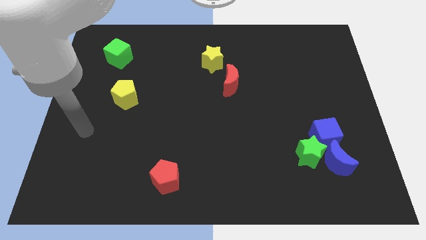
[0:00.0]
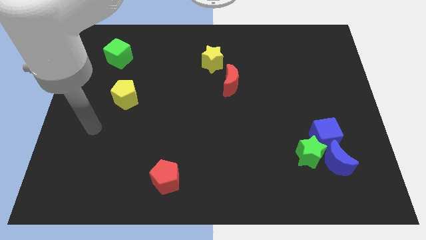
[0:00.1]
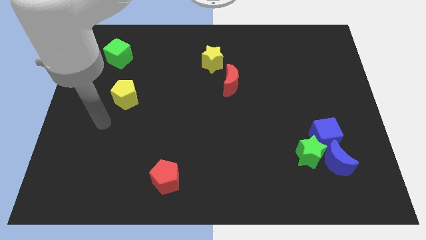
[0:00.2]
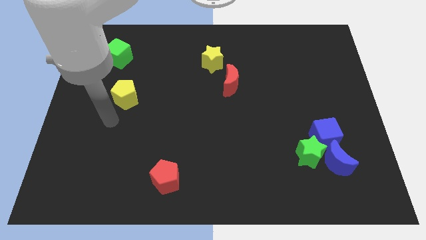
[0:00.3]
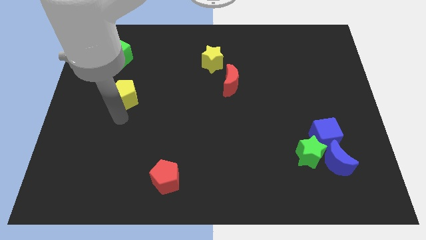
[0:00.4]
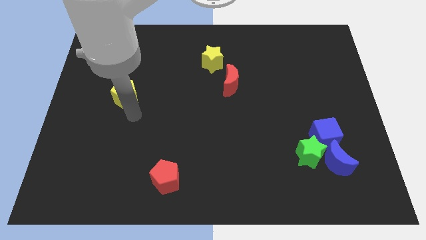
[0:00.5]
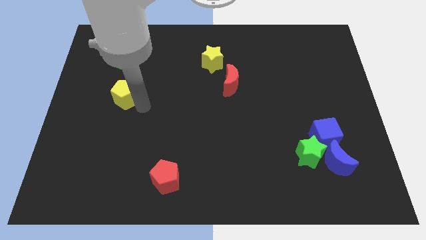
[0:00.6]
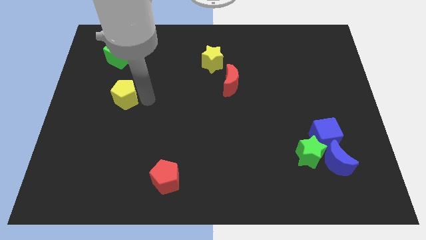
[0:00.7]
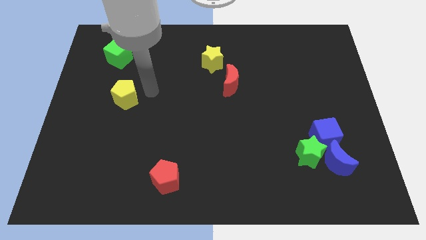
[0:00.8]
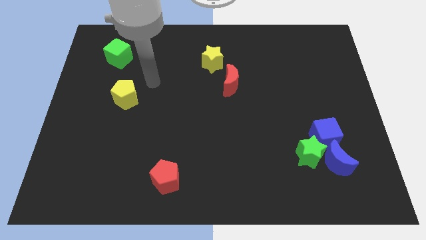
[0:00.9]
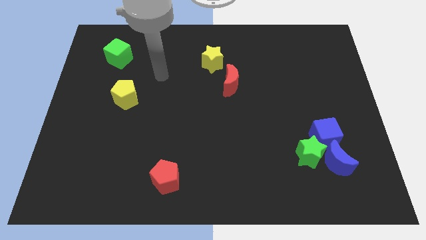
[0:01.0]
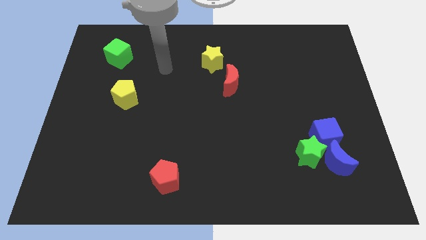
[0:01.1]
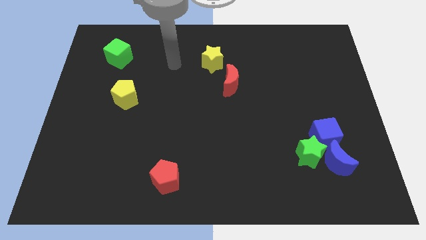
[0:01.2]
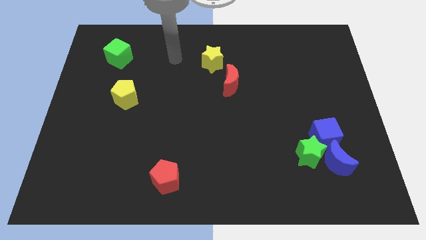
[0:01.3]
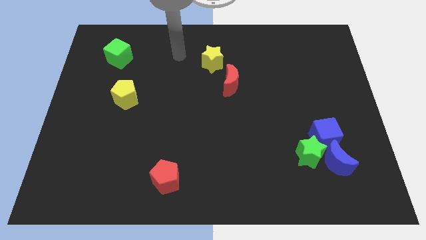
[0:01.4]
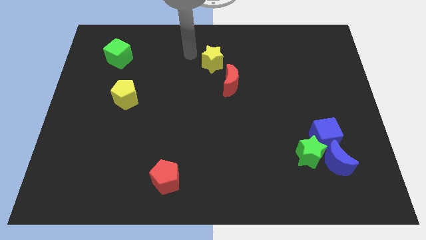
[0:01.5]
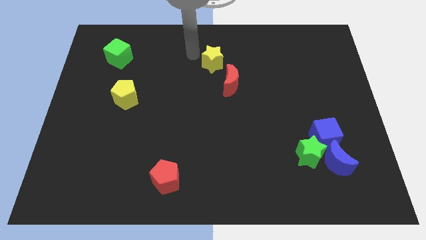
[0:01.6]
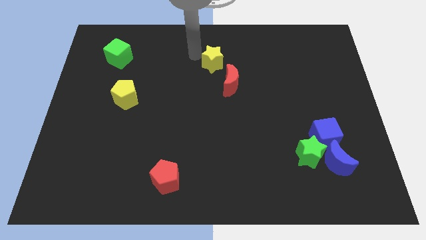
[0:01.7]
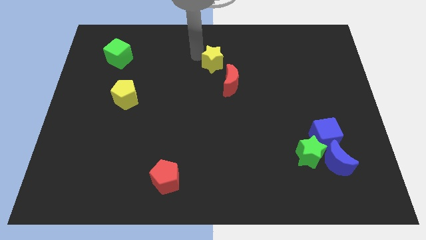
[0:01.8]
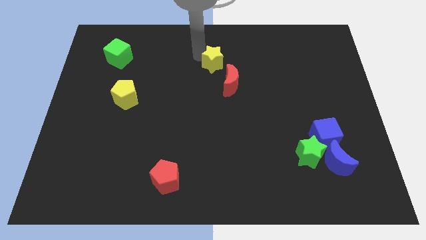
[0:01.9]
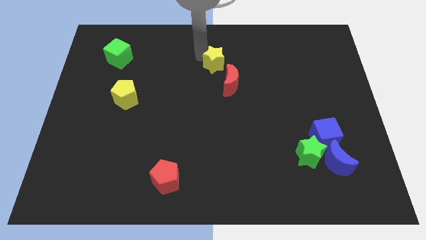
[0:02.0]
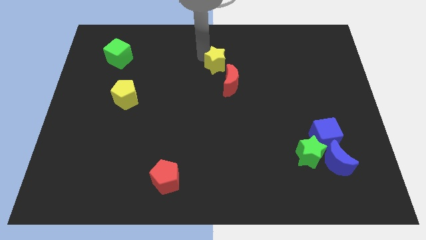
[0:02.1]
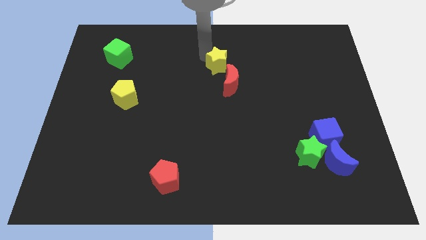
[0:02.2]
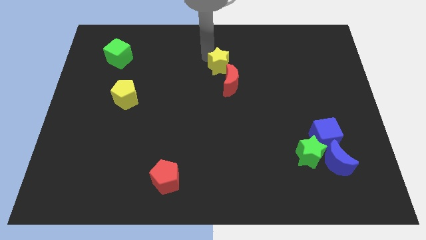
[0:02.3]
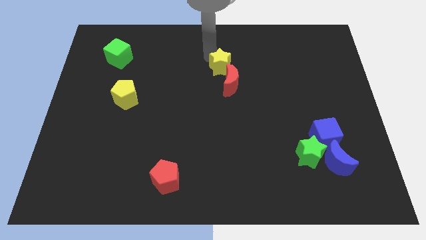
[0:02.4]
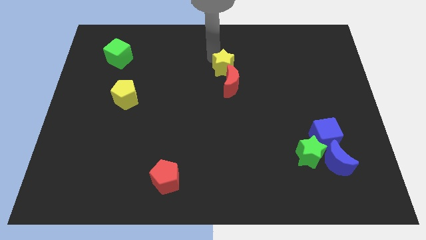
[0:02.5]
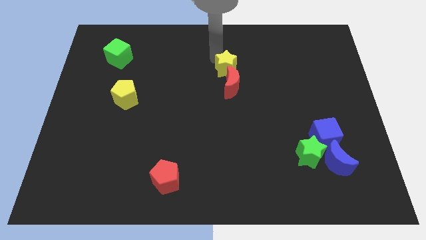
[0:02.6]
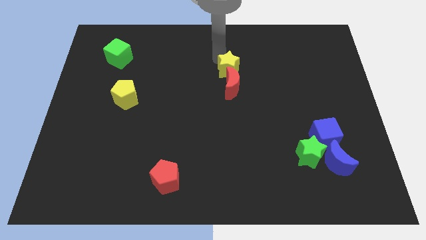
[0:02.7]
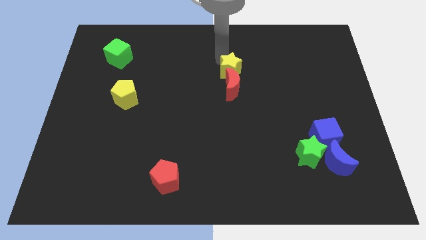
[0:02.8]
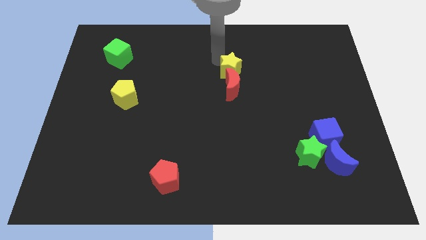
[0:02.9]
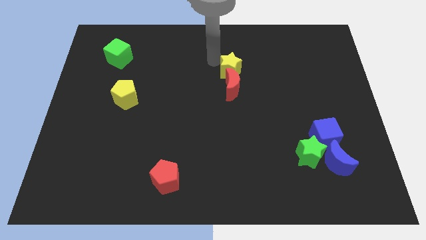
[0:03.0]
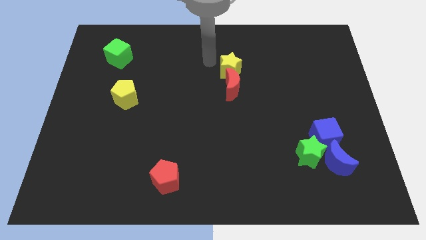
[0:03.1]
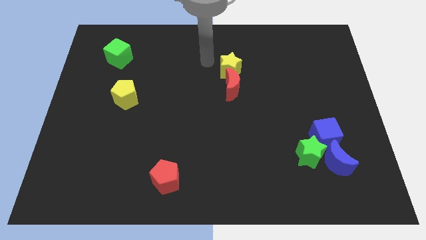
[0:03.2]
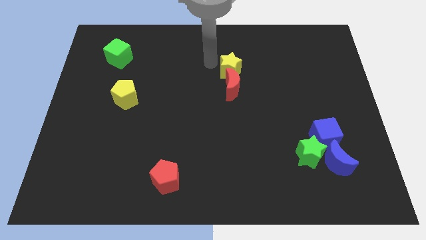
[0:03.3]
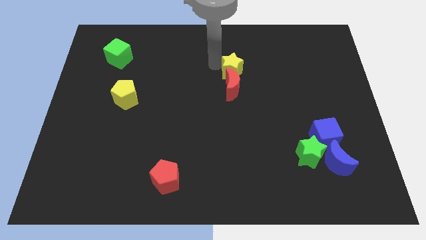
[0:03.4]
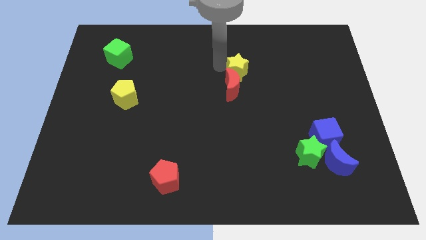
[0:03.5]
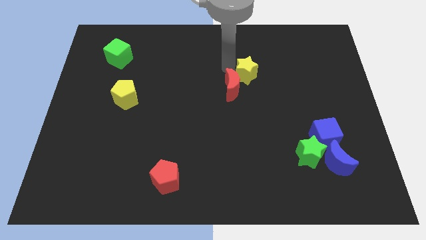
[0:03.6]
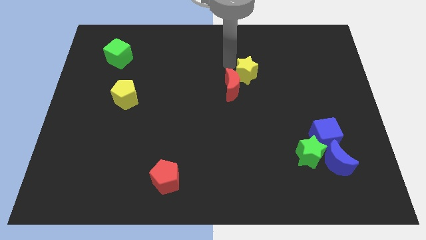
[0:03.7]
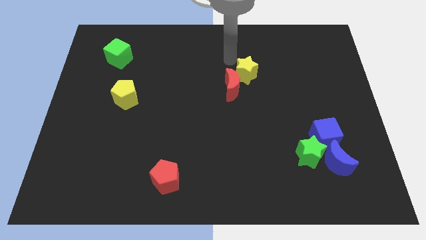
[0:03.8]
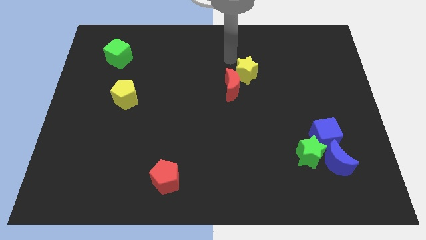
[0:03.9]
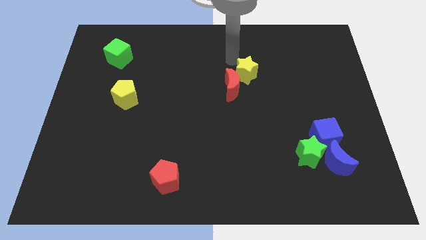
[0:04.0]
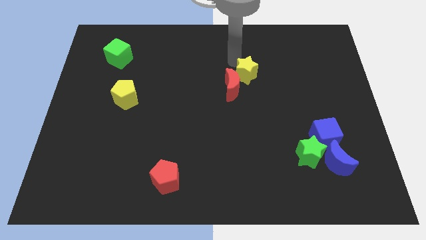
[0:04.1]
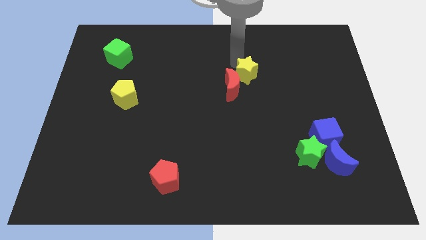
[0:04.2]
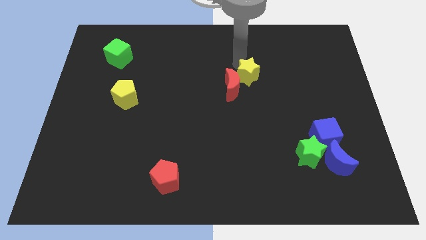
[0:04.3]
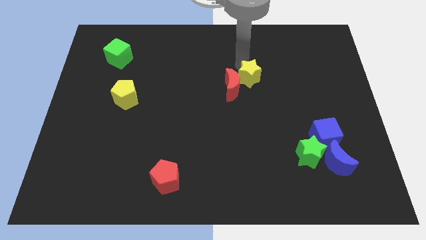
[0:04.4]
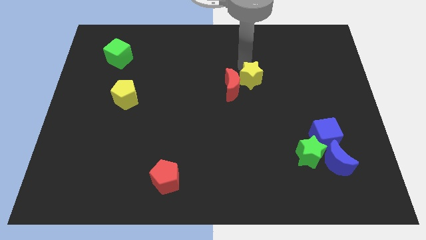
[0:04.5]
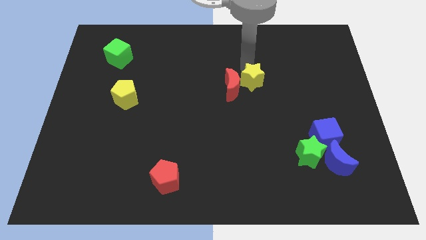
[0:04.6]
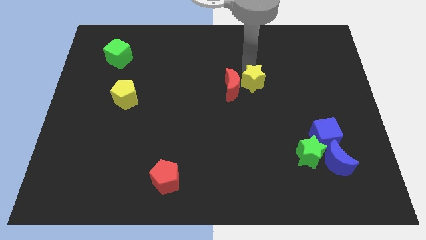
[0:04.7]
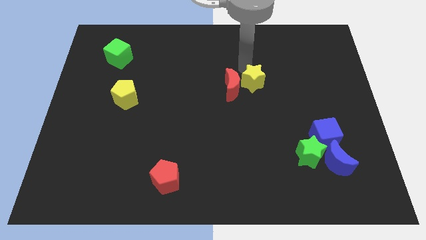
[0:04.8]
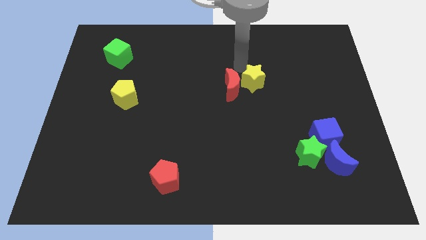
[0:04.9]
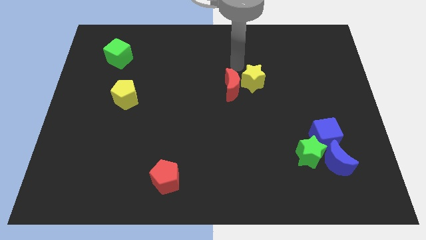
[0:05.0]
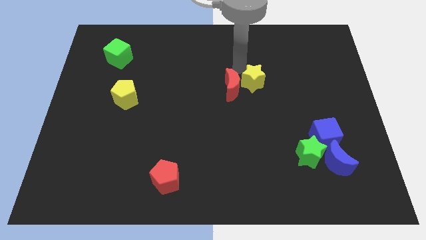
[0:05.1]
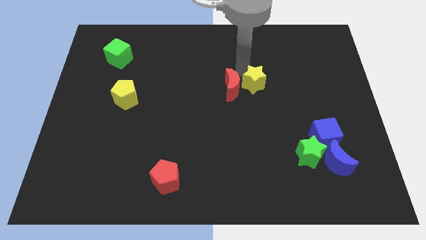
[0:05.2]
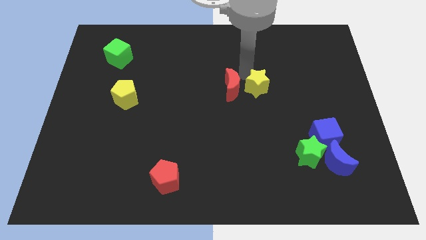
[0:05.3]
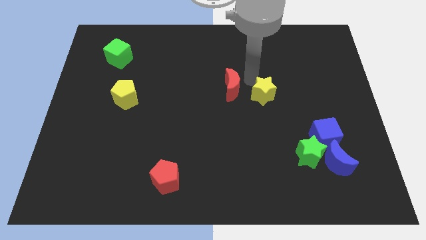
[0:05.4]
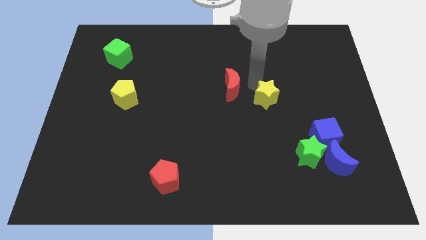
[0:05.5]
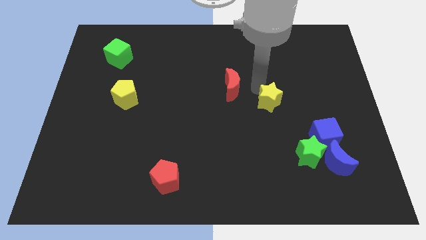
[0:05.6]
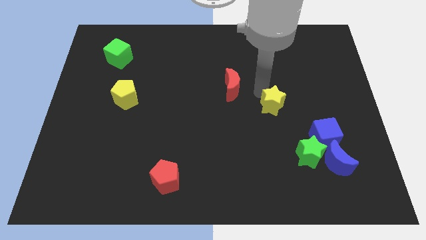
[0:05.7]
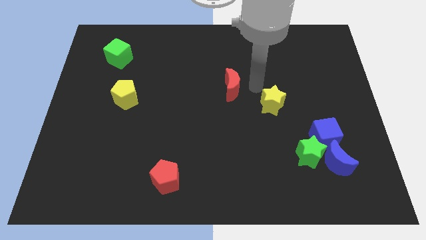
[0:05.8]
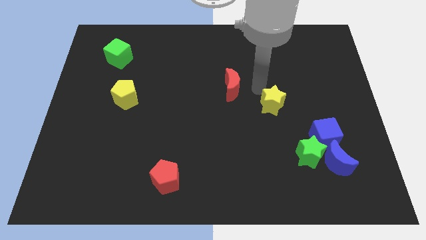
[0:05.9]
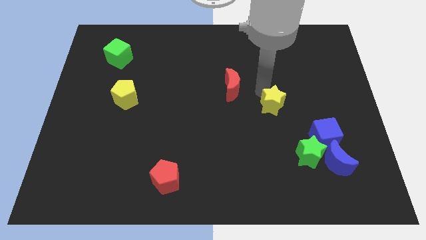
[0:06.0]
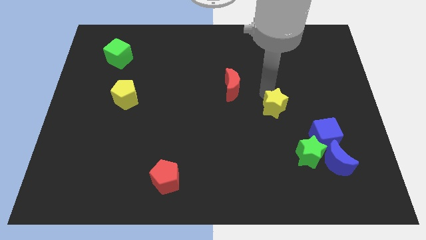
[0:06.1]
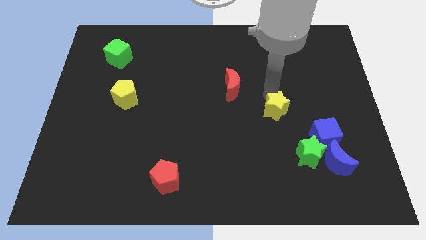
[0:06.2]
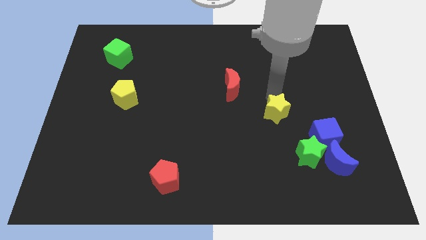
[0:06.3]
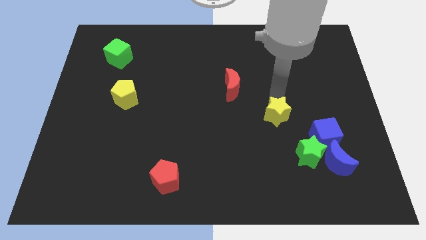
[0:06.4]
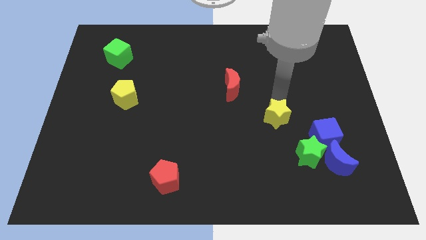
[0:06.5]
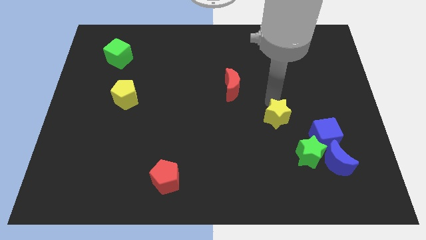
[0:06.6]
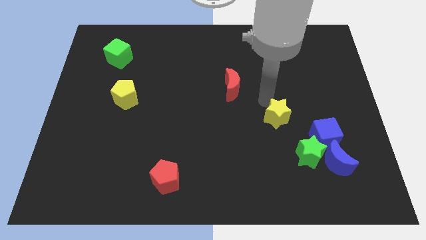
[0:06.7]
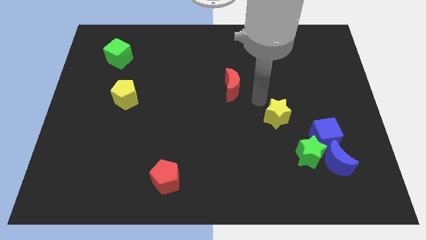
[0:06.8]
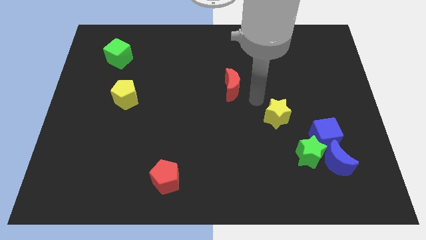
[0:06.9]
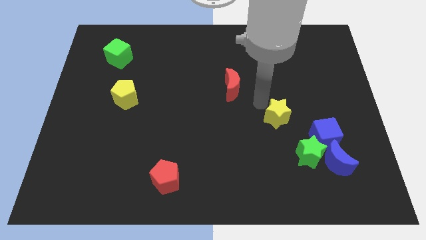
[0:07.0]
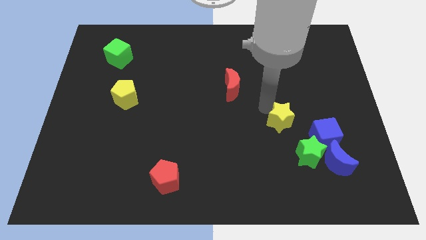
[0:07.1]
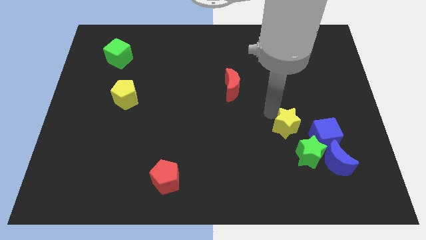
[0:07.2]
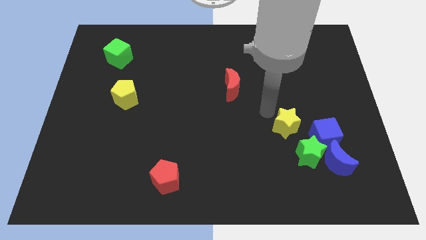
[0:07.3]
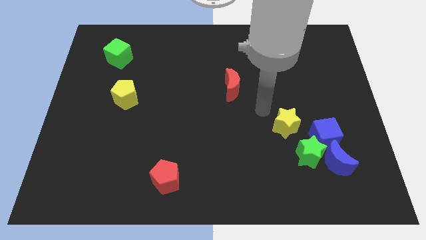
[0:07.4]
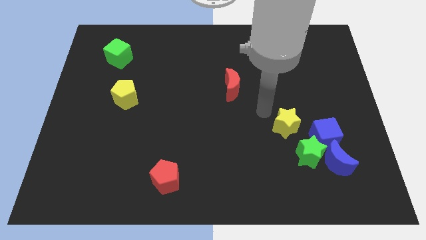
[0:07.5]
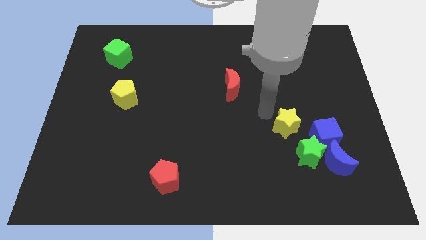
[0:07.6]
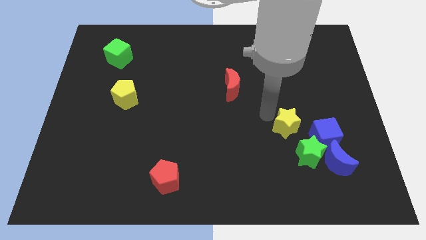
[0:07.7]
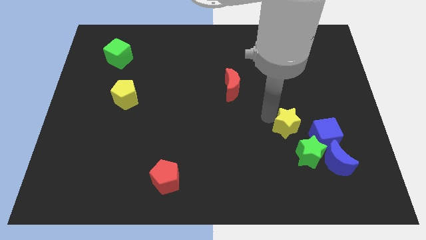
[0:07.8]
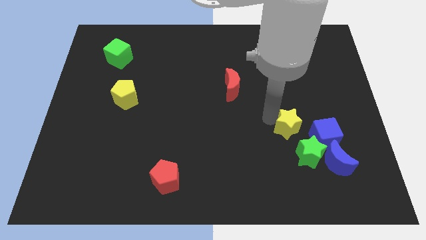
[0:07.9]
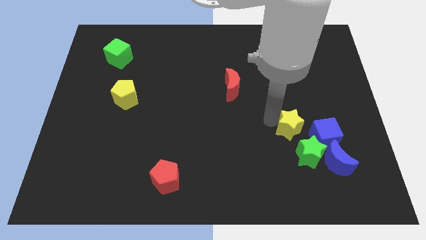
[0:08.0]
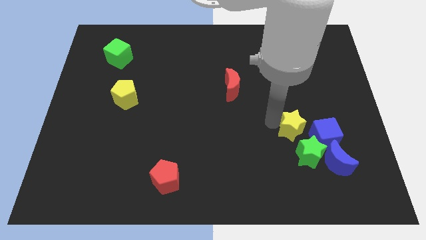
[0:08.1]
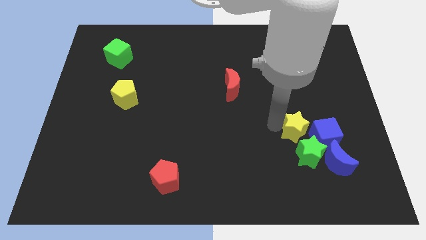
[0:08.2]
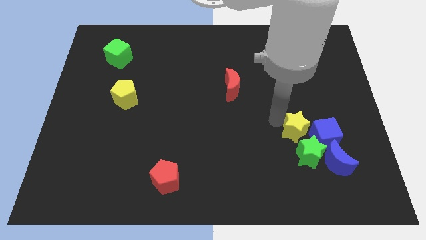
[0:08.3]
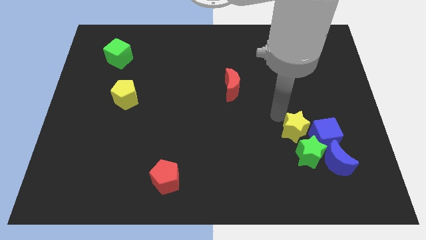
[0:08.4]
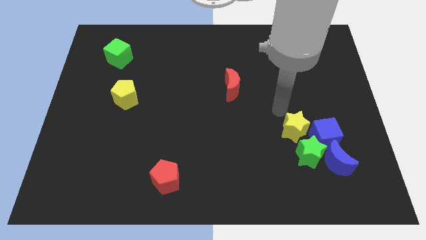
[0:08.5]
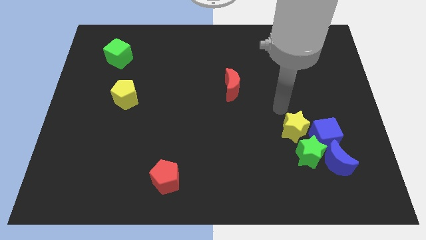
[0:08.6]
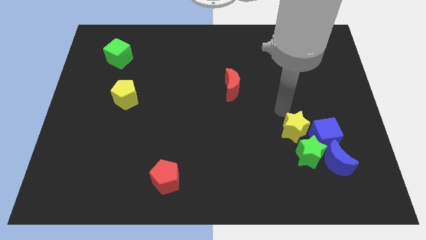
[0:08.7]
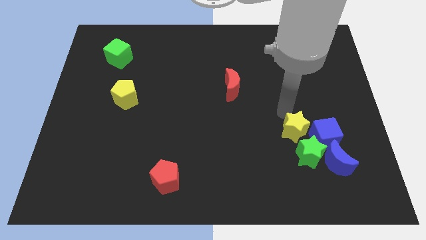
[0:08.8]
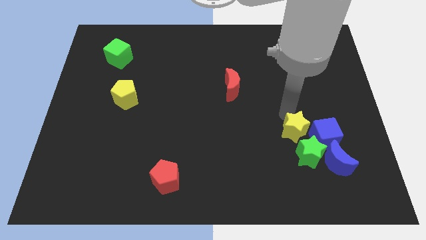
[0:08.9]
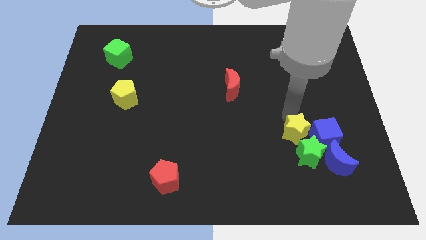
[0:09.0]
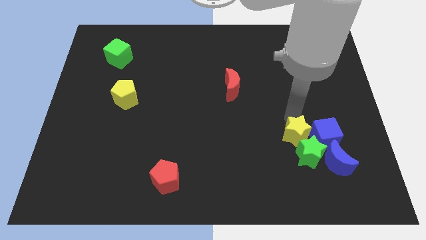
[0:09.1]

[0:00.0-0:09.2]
put the yellow star towards the green star
